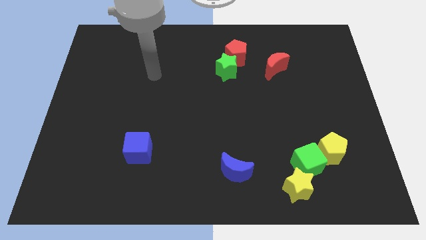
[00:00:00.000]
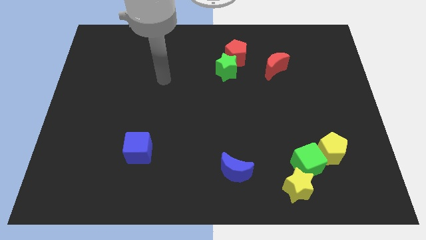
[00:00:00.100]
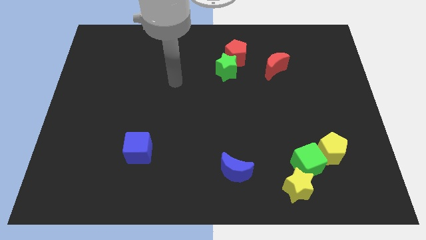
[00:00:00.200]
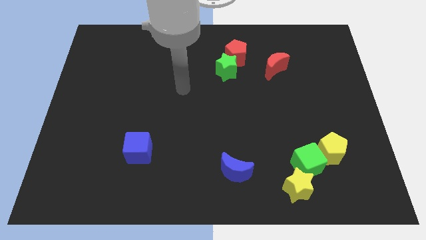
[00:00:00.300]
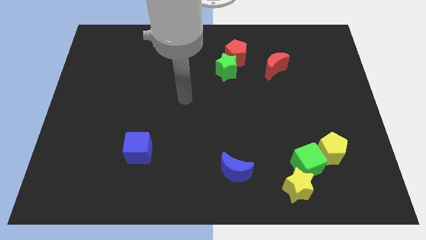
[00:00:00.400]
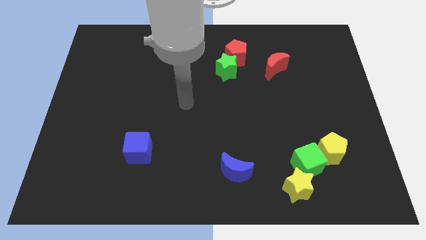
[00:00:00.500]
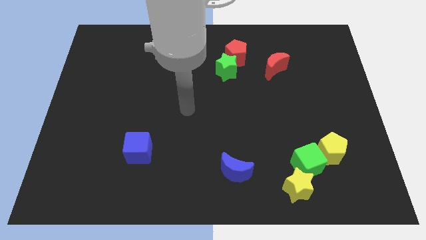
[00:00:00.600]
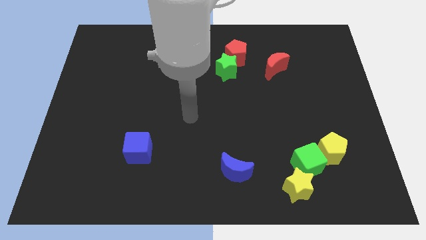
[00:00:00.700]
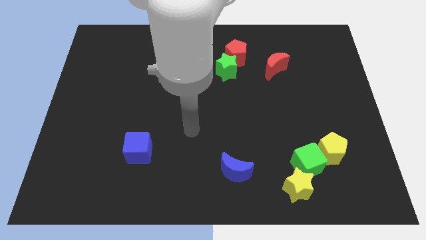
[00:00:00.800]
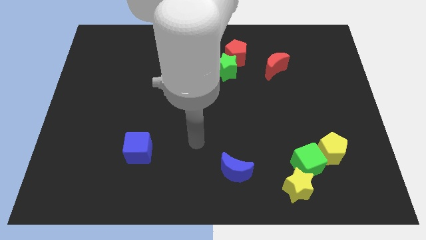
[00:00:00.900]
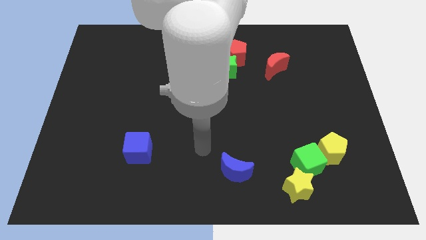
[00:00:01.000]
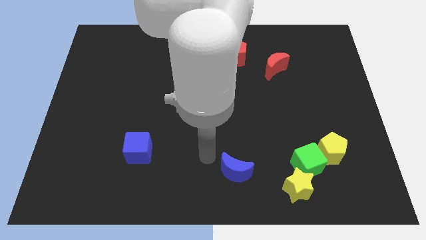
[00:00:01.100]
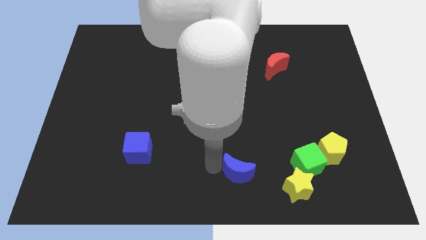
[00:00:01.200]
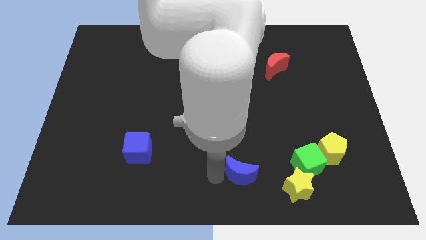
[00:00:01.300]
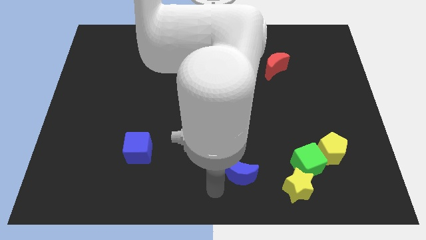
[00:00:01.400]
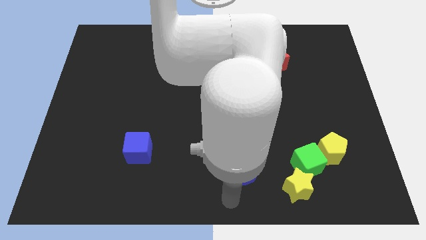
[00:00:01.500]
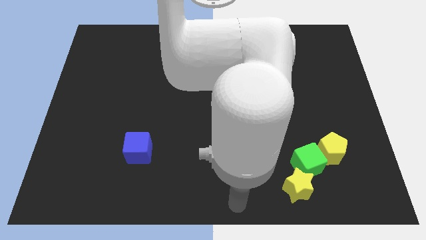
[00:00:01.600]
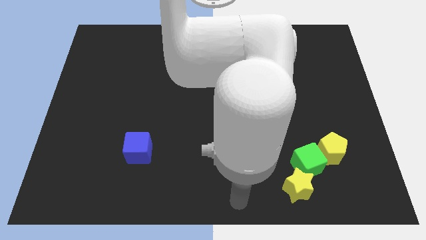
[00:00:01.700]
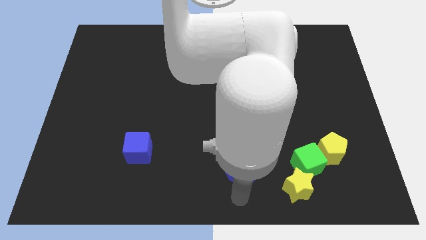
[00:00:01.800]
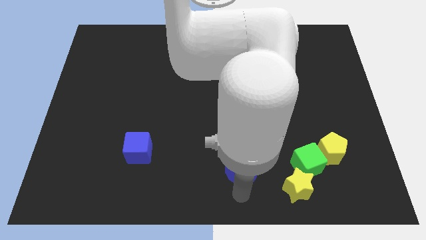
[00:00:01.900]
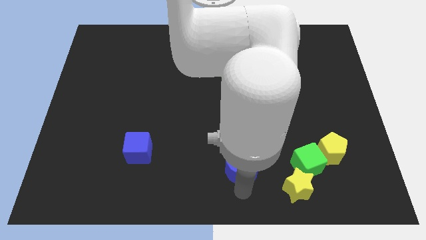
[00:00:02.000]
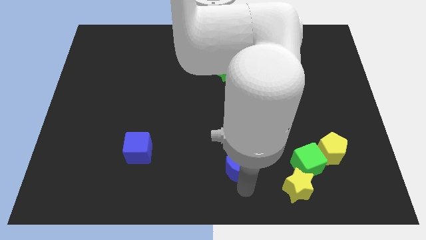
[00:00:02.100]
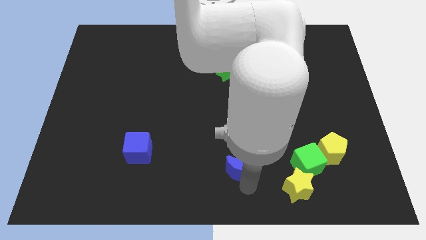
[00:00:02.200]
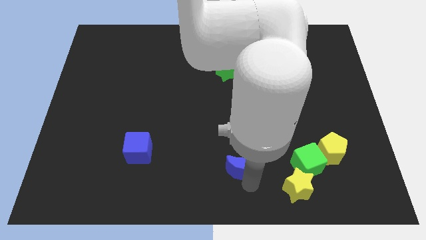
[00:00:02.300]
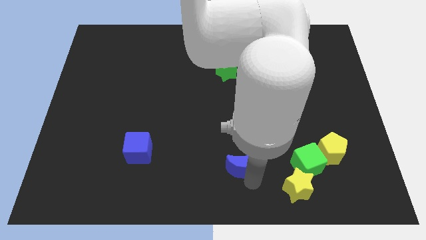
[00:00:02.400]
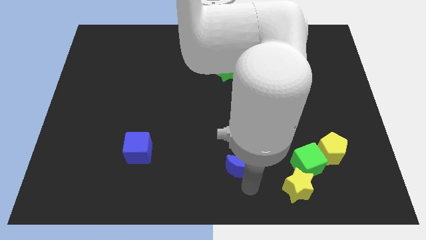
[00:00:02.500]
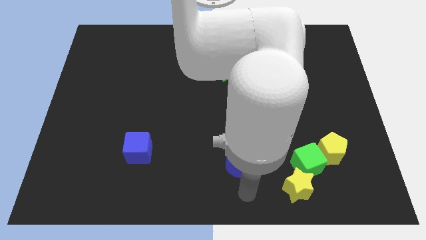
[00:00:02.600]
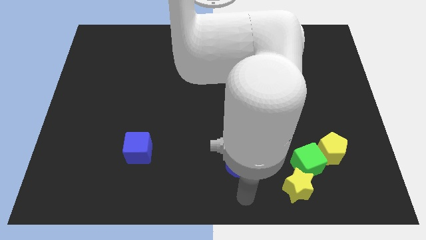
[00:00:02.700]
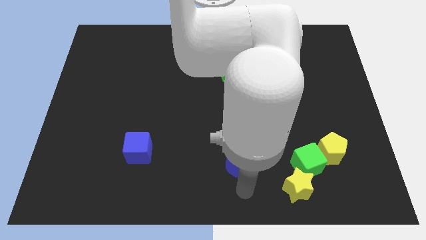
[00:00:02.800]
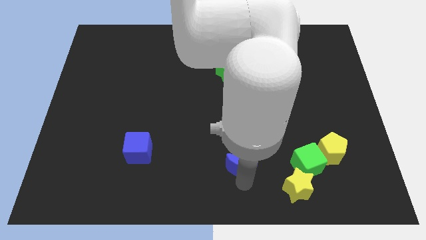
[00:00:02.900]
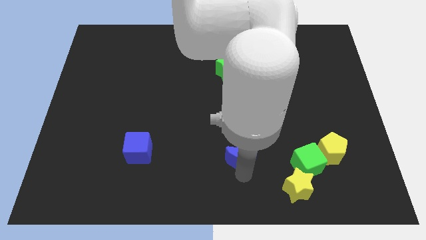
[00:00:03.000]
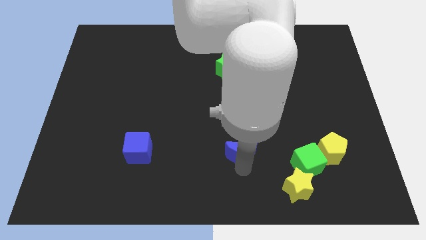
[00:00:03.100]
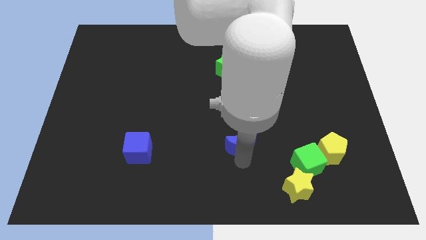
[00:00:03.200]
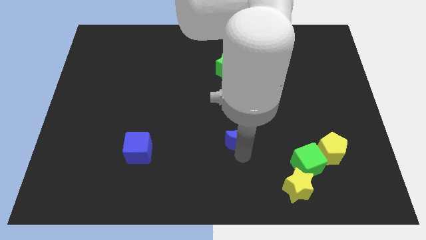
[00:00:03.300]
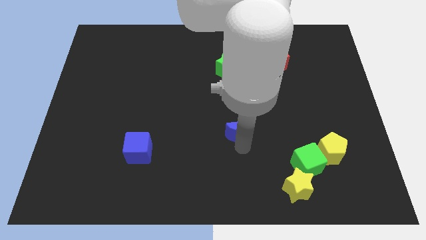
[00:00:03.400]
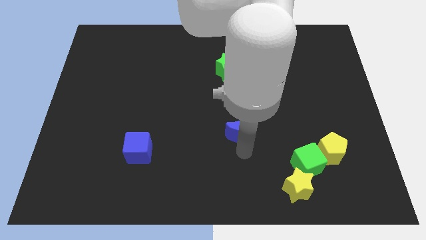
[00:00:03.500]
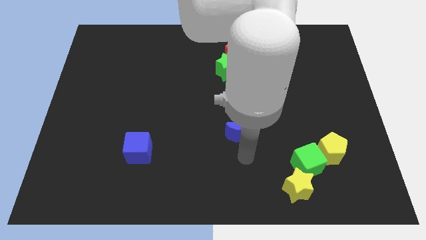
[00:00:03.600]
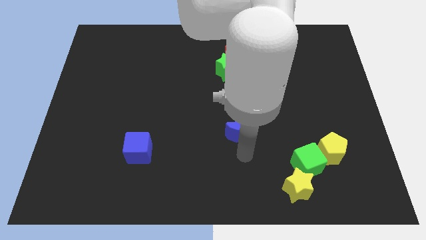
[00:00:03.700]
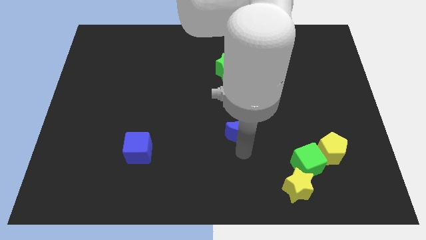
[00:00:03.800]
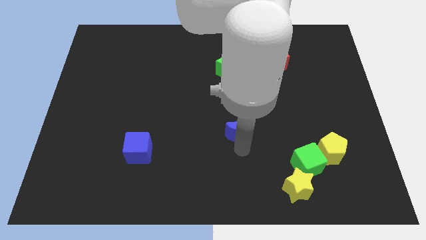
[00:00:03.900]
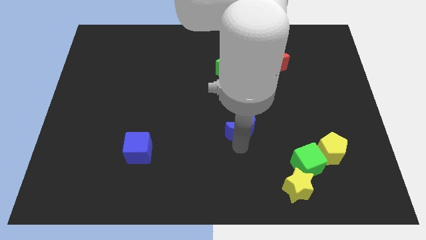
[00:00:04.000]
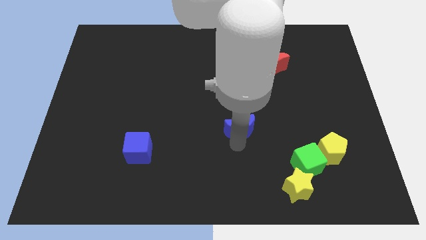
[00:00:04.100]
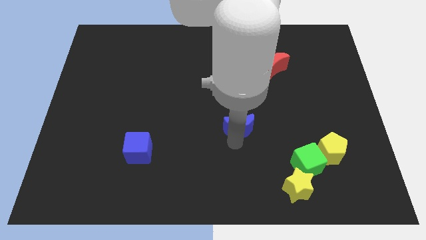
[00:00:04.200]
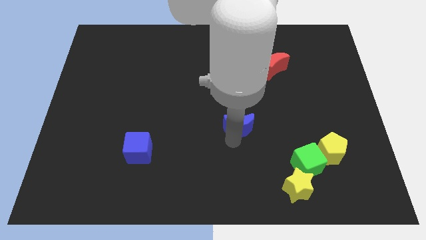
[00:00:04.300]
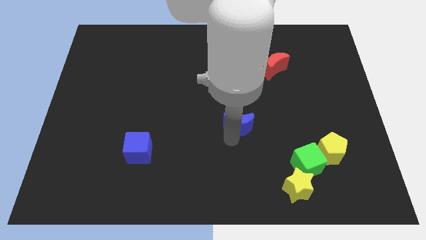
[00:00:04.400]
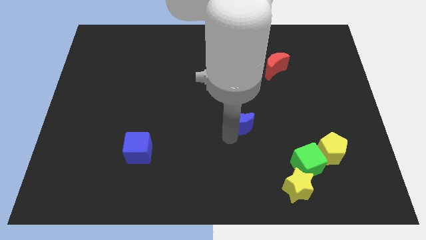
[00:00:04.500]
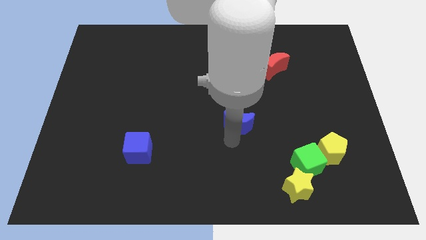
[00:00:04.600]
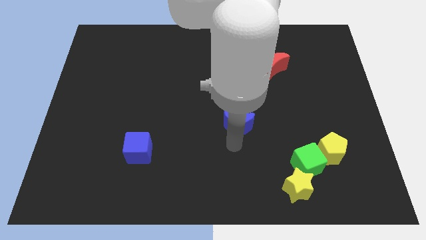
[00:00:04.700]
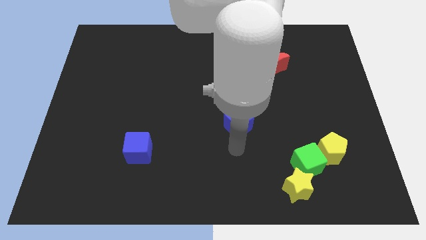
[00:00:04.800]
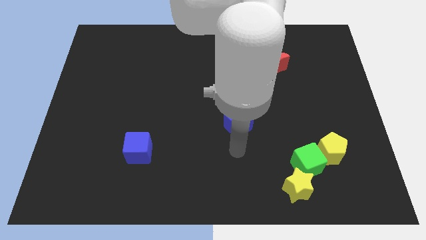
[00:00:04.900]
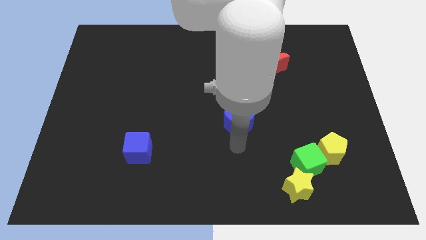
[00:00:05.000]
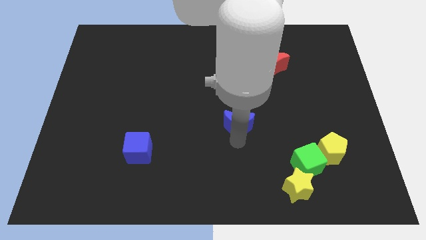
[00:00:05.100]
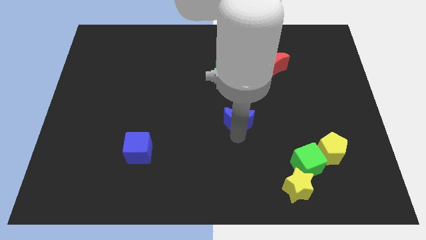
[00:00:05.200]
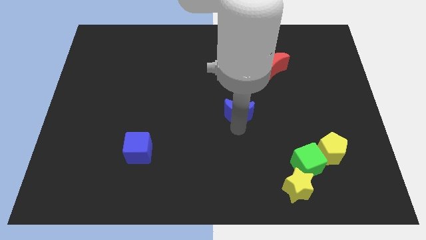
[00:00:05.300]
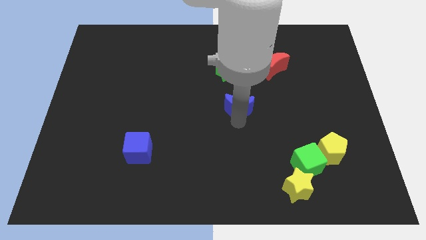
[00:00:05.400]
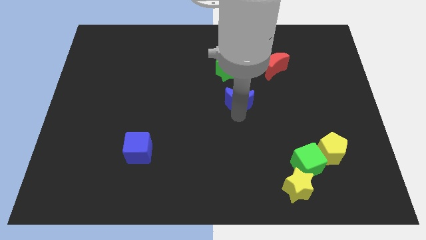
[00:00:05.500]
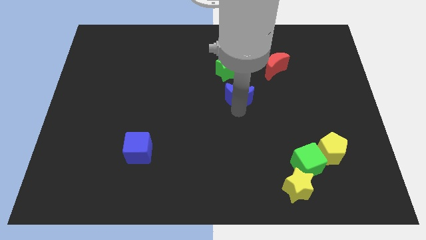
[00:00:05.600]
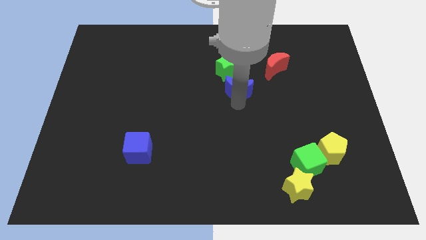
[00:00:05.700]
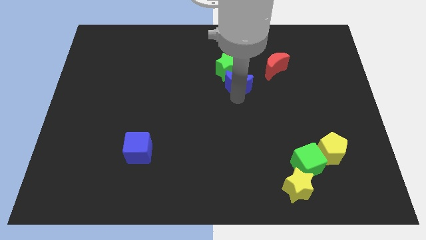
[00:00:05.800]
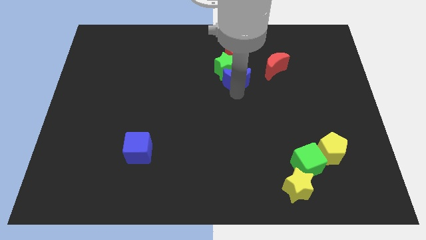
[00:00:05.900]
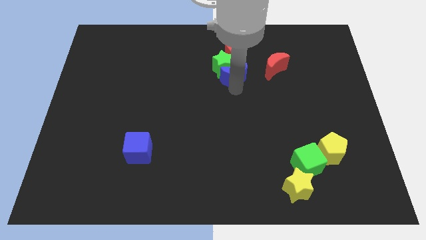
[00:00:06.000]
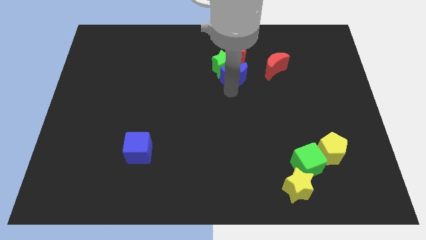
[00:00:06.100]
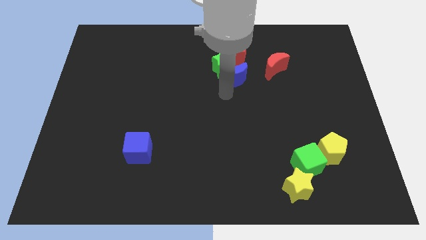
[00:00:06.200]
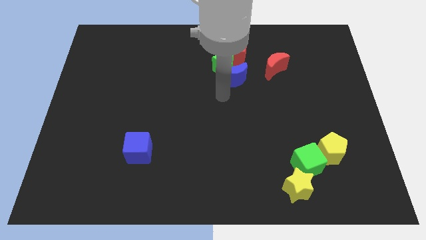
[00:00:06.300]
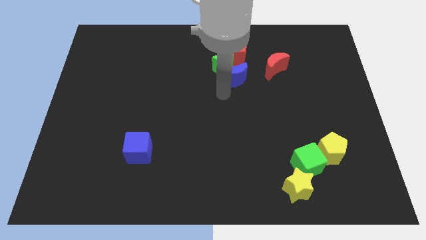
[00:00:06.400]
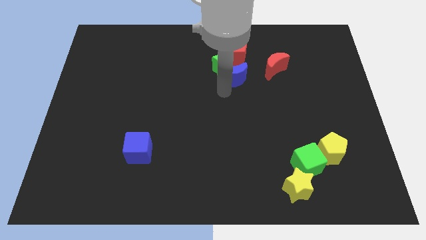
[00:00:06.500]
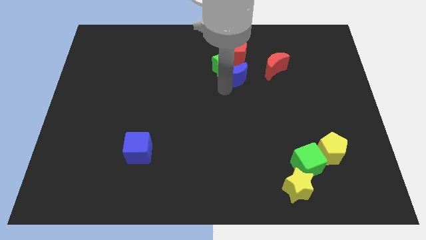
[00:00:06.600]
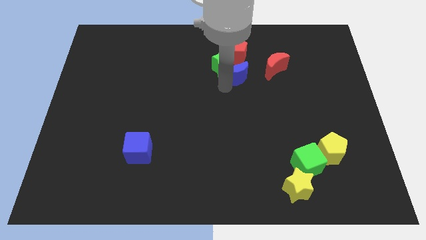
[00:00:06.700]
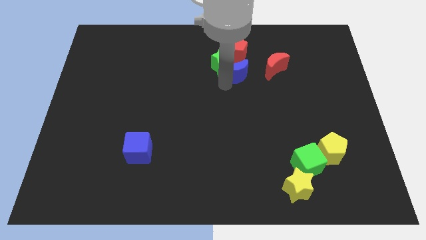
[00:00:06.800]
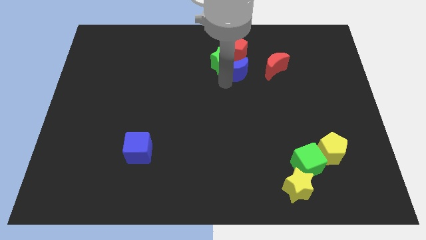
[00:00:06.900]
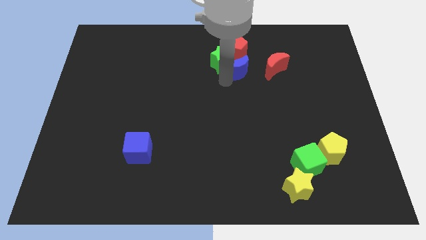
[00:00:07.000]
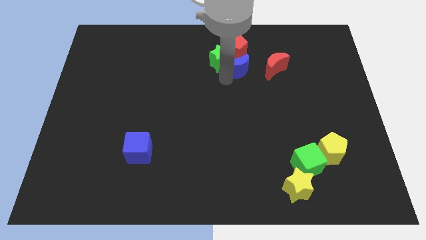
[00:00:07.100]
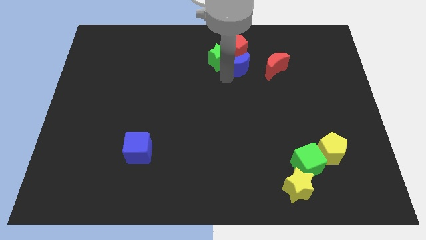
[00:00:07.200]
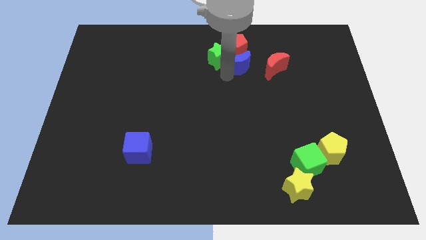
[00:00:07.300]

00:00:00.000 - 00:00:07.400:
push the blue moon close to the red pentagon
